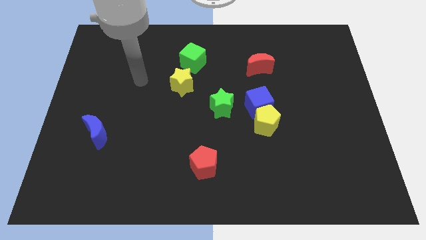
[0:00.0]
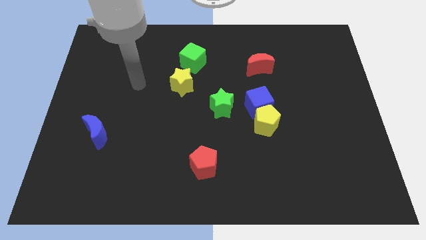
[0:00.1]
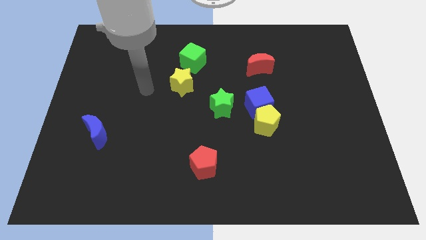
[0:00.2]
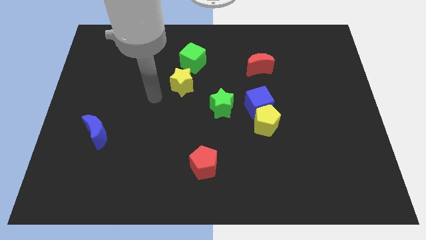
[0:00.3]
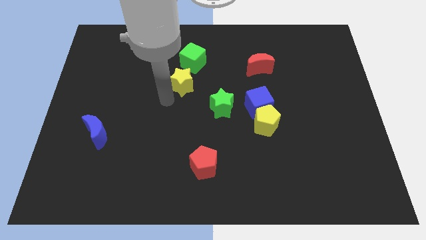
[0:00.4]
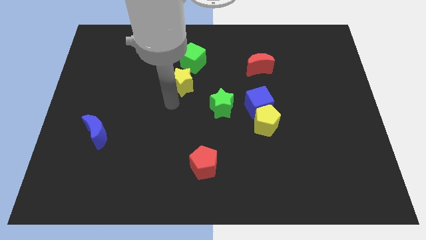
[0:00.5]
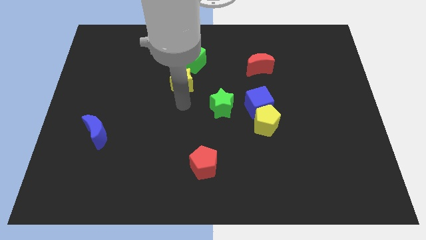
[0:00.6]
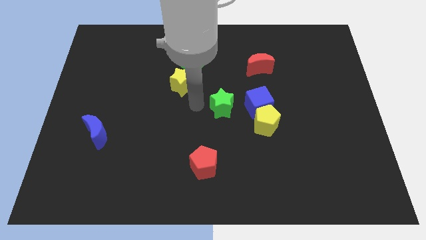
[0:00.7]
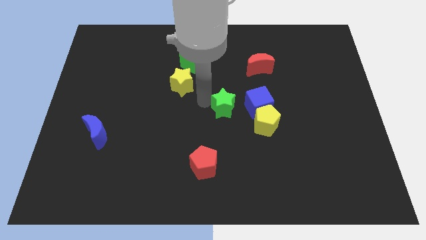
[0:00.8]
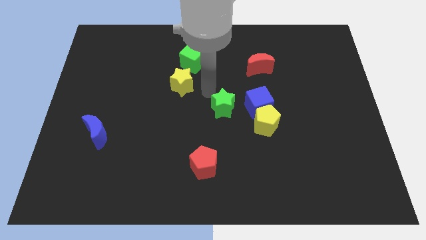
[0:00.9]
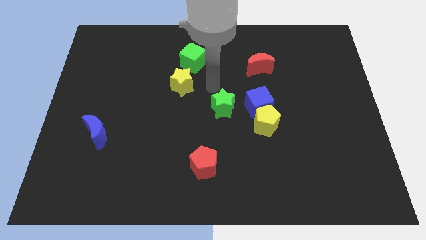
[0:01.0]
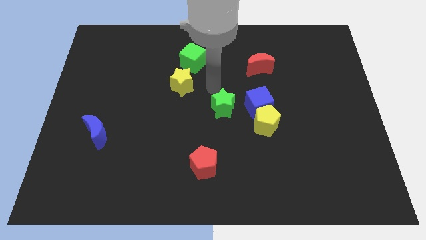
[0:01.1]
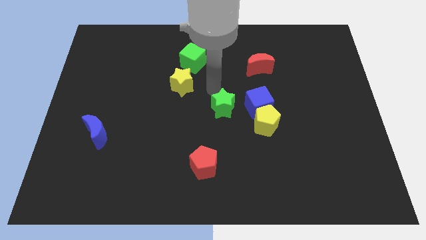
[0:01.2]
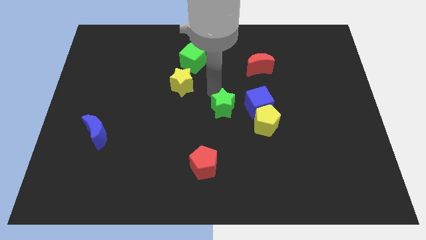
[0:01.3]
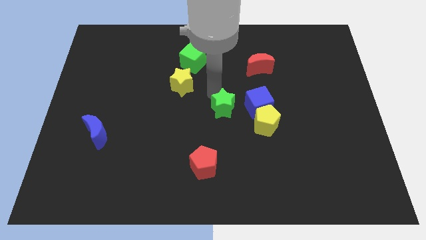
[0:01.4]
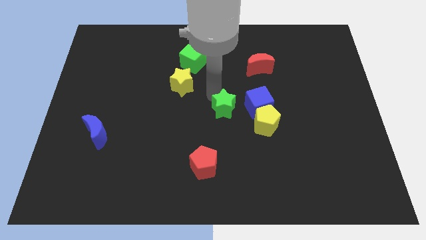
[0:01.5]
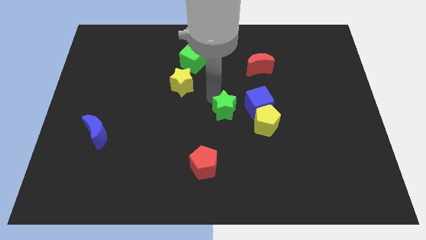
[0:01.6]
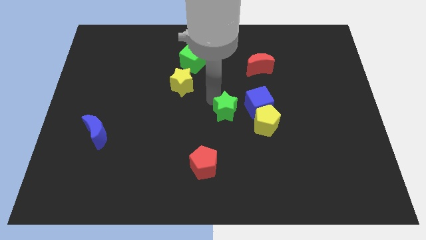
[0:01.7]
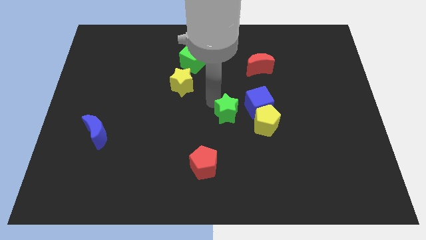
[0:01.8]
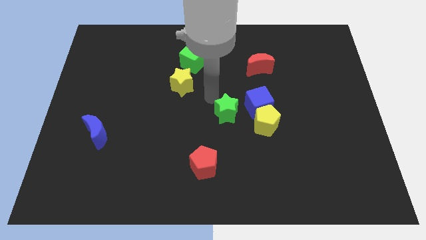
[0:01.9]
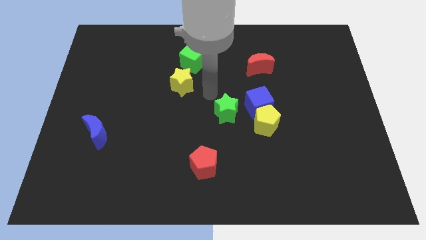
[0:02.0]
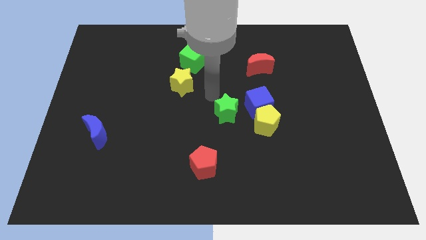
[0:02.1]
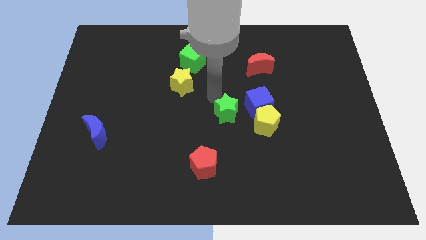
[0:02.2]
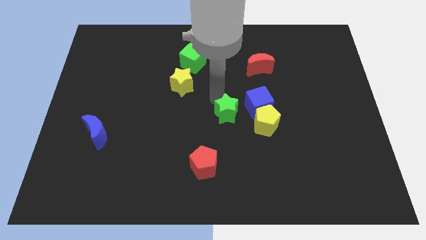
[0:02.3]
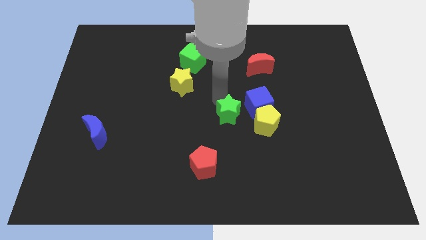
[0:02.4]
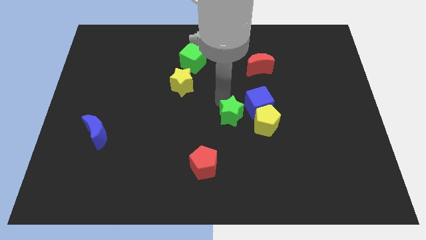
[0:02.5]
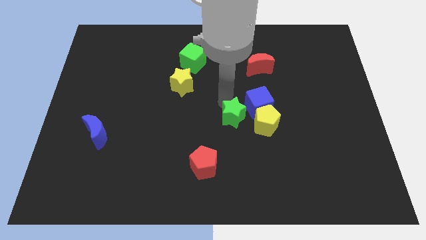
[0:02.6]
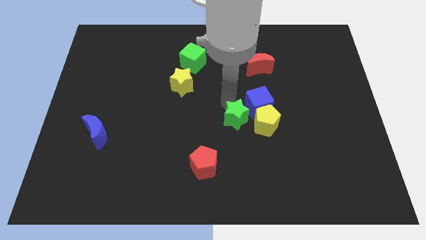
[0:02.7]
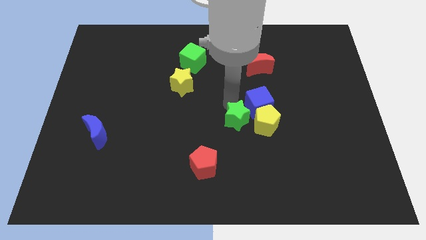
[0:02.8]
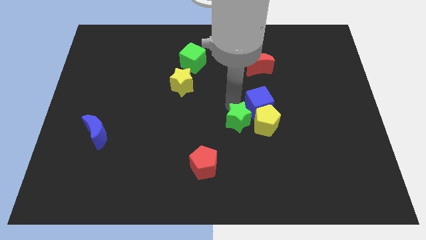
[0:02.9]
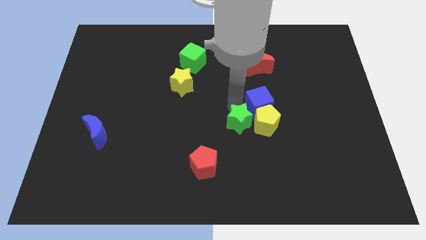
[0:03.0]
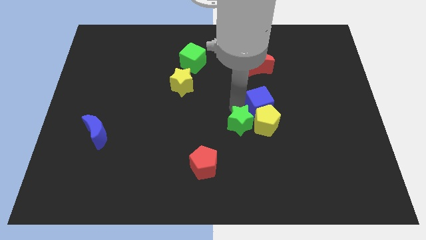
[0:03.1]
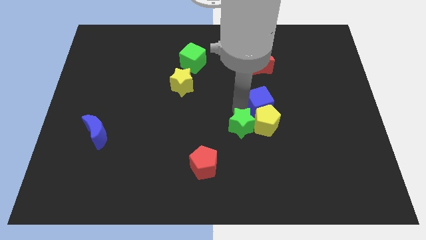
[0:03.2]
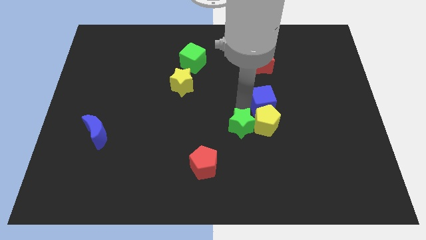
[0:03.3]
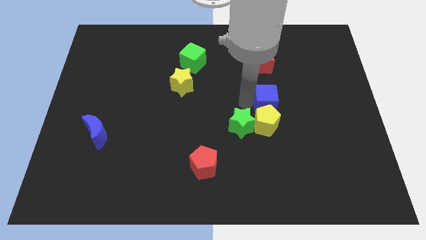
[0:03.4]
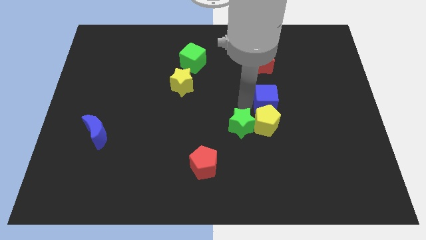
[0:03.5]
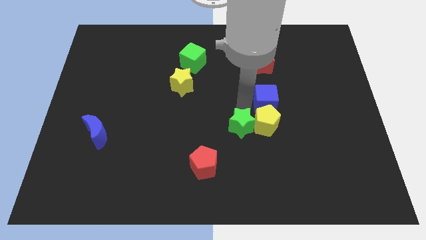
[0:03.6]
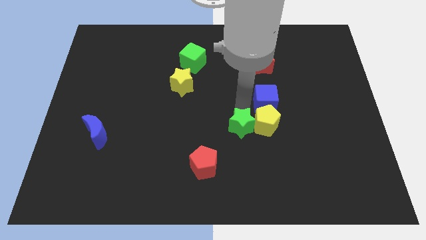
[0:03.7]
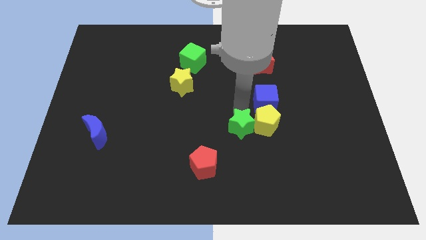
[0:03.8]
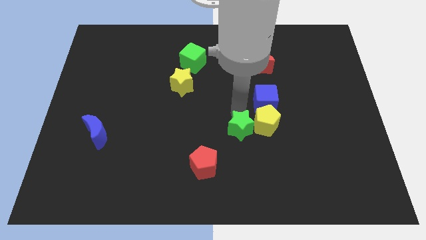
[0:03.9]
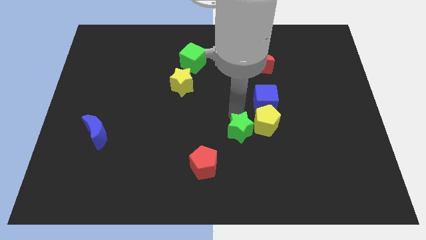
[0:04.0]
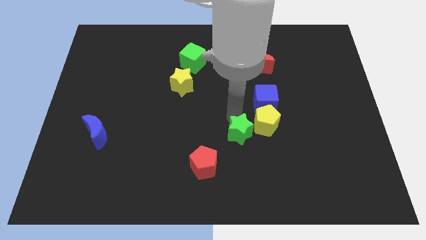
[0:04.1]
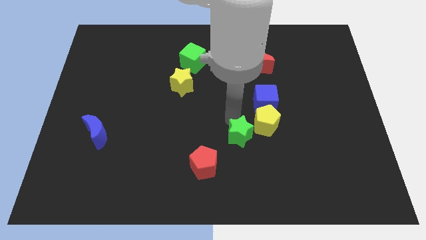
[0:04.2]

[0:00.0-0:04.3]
push the green star a little bit down

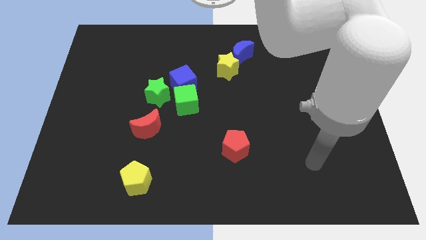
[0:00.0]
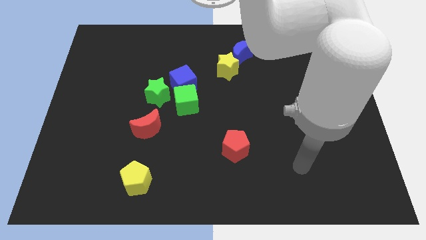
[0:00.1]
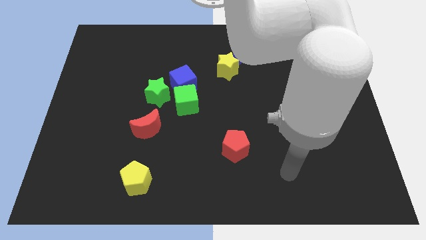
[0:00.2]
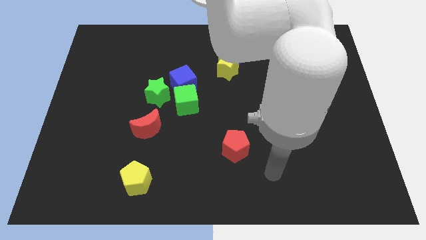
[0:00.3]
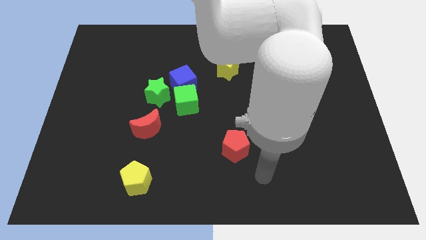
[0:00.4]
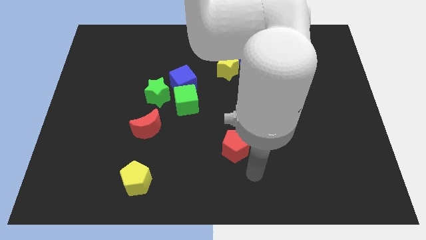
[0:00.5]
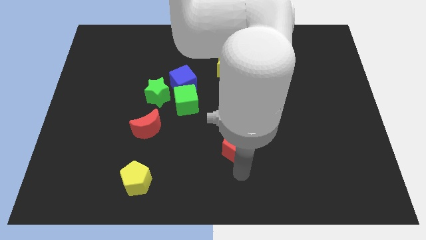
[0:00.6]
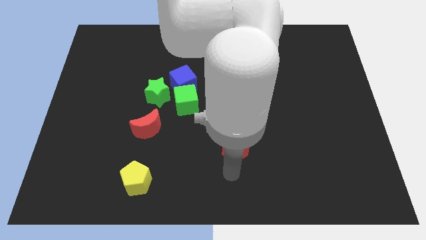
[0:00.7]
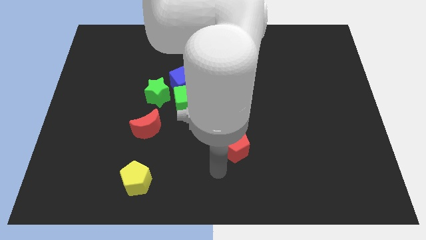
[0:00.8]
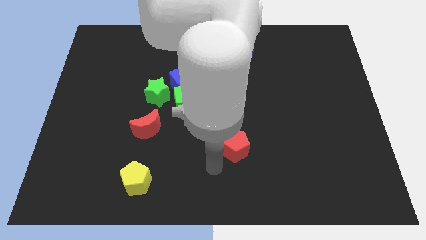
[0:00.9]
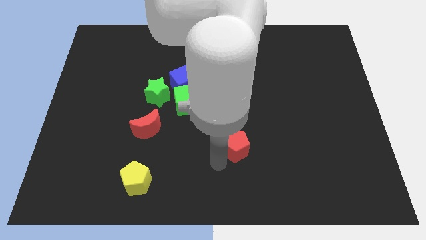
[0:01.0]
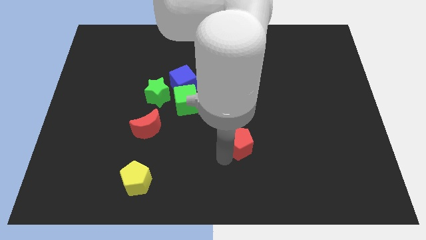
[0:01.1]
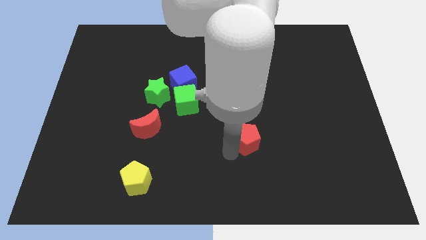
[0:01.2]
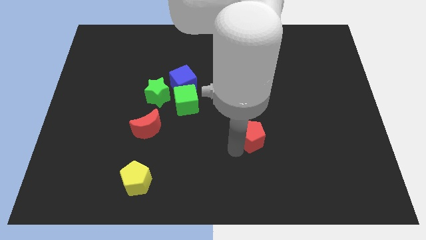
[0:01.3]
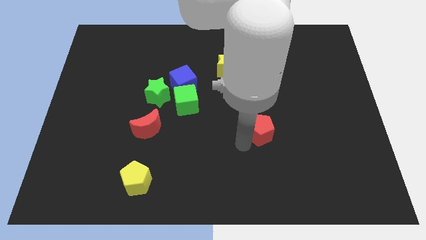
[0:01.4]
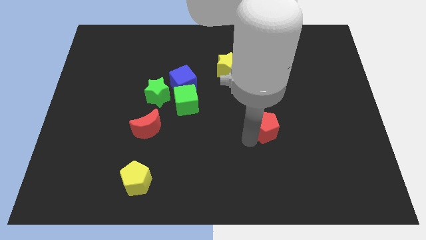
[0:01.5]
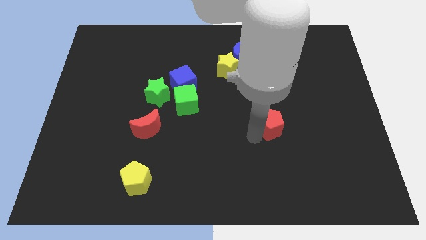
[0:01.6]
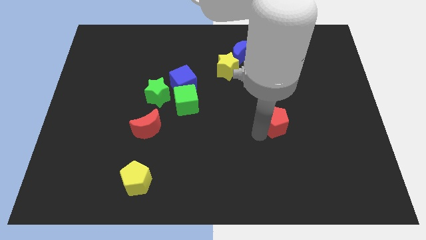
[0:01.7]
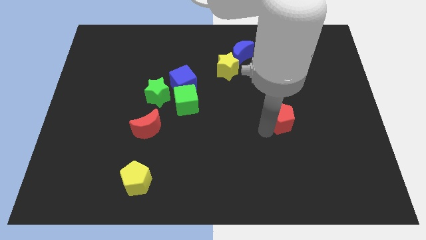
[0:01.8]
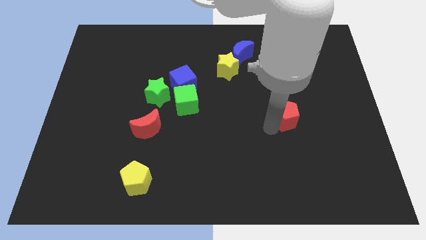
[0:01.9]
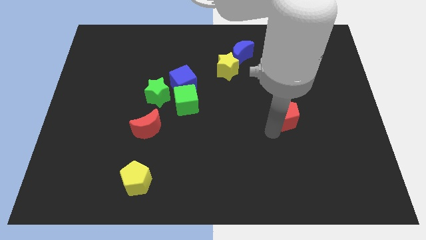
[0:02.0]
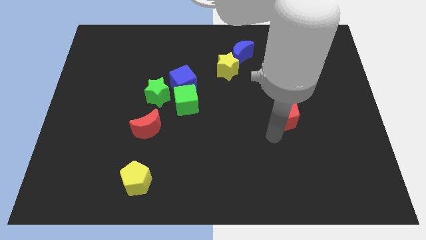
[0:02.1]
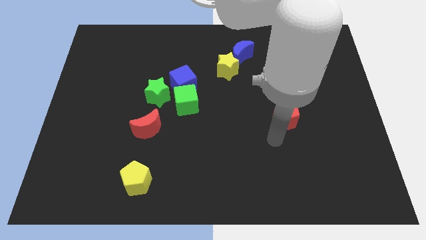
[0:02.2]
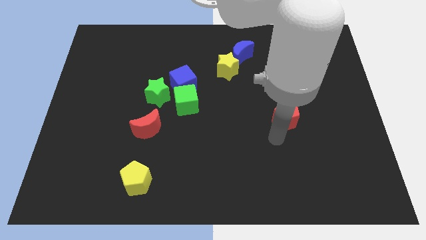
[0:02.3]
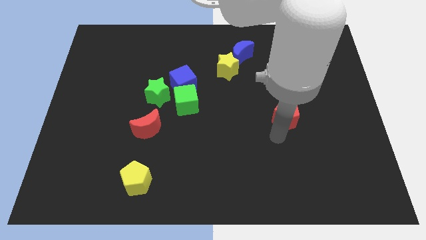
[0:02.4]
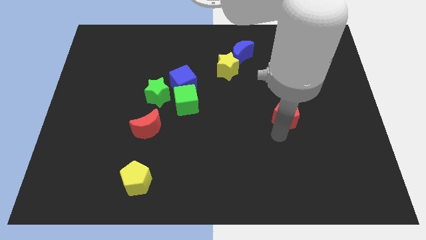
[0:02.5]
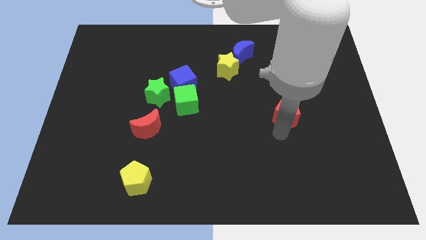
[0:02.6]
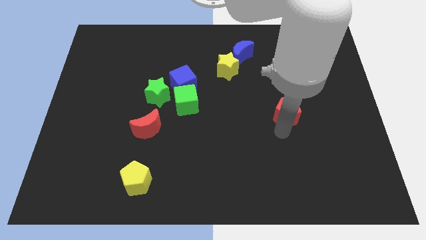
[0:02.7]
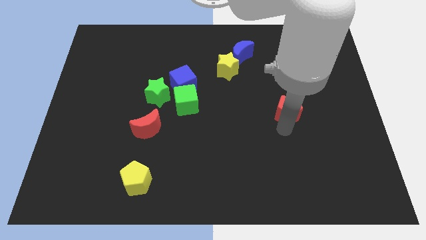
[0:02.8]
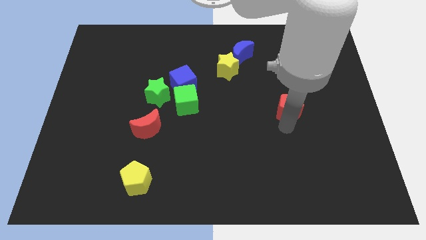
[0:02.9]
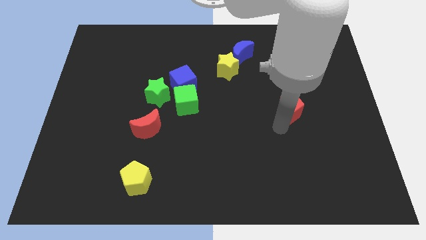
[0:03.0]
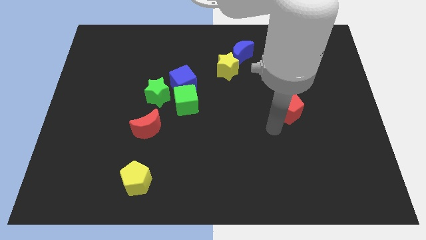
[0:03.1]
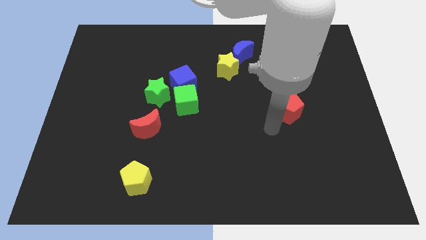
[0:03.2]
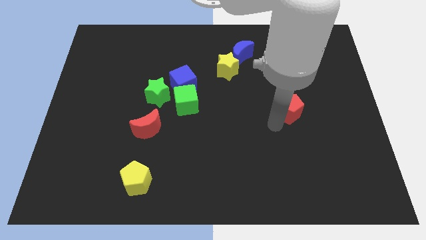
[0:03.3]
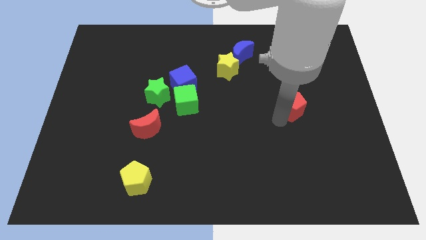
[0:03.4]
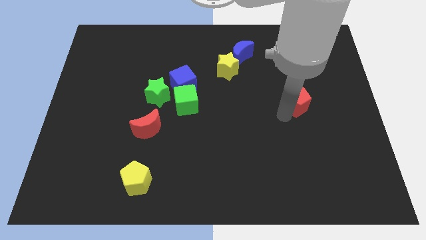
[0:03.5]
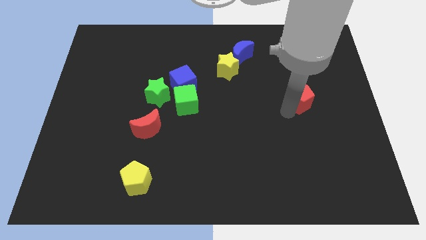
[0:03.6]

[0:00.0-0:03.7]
slide the red pentagon up and then to the right
